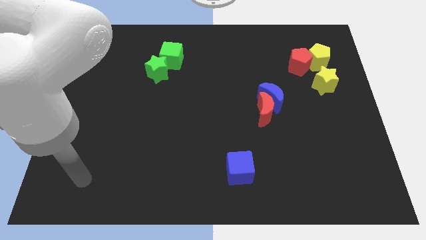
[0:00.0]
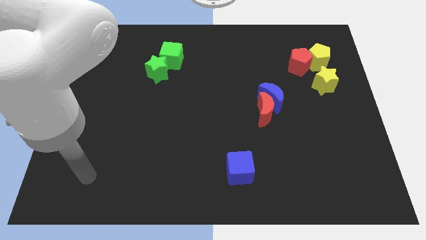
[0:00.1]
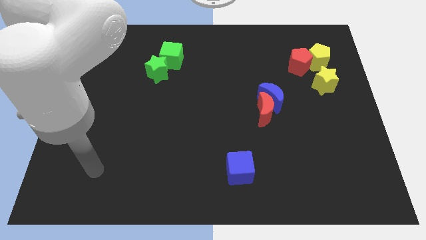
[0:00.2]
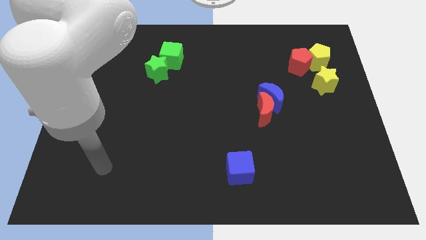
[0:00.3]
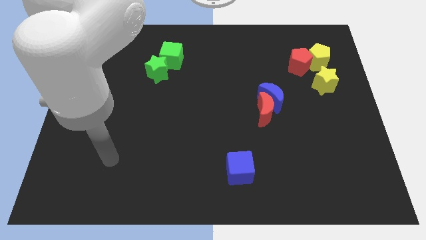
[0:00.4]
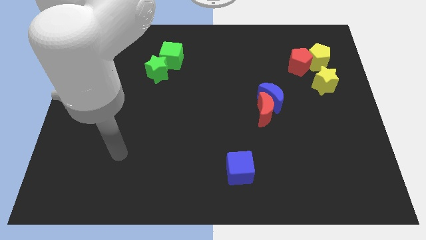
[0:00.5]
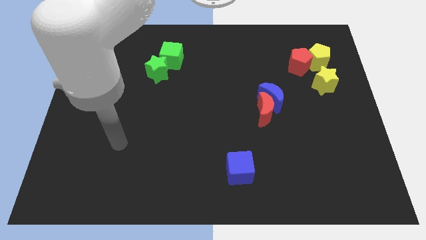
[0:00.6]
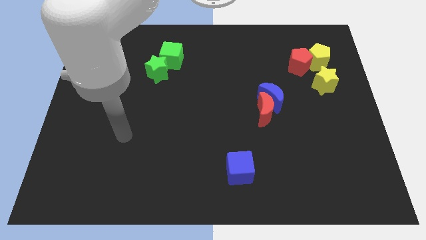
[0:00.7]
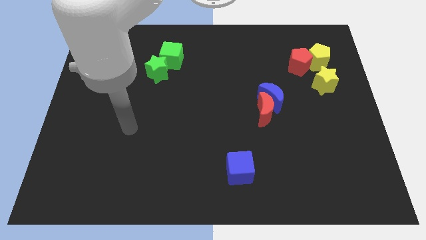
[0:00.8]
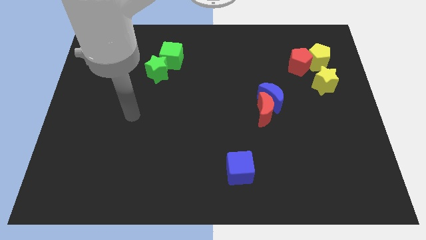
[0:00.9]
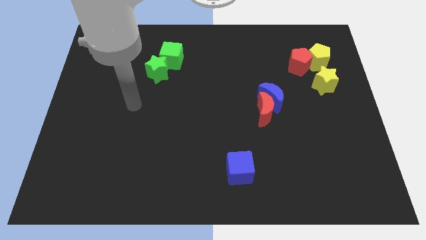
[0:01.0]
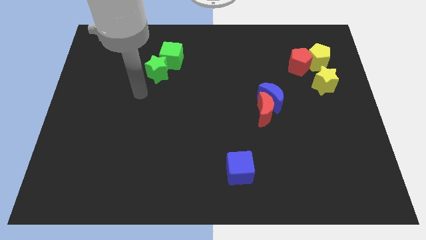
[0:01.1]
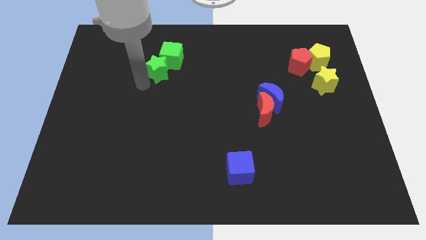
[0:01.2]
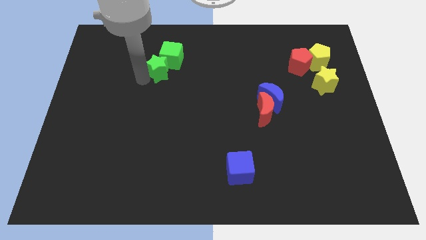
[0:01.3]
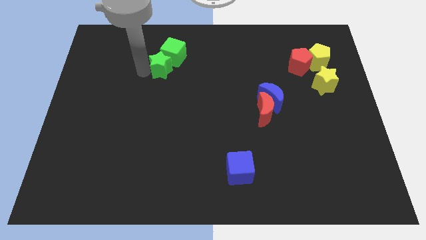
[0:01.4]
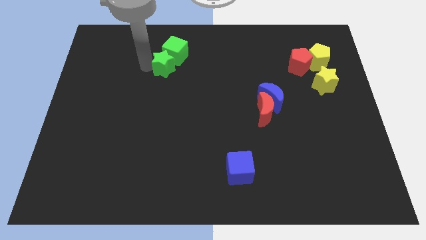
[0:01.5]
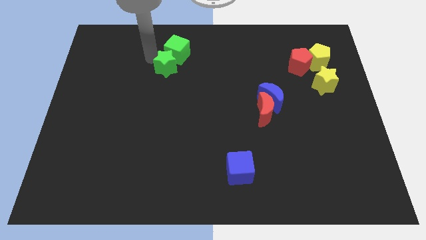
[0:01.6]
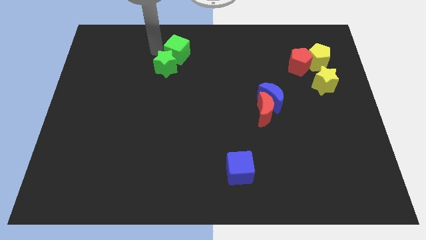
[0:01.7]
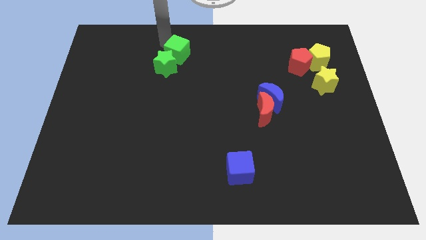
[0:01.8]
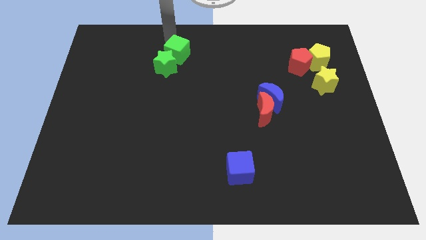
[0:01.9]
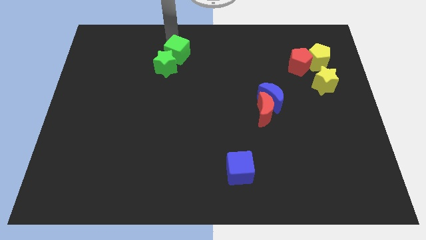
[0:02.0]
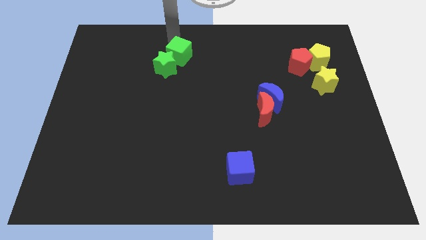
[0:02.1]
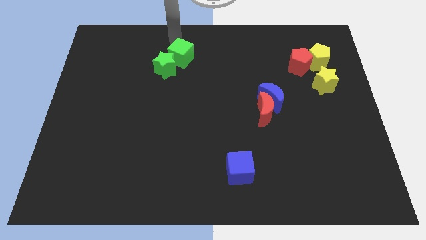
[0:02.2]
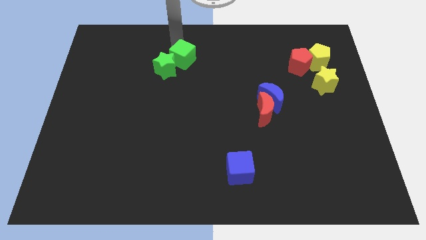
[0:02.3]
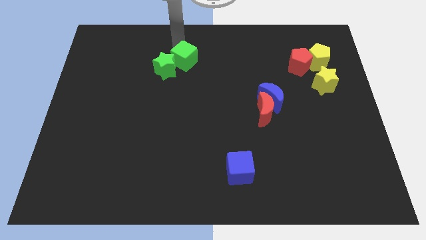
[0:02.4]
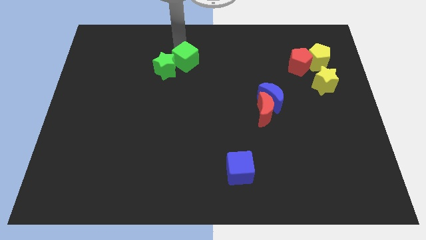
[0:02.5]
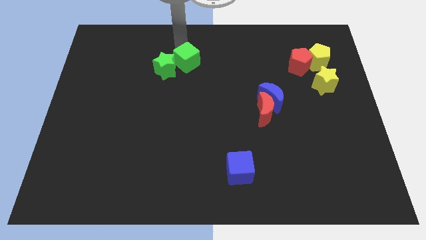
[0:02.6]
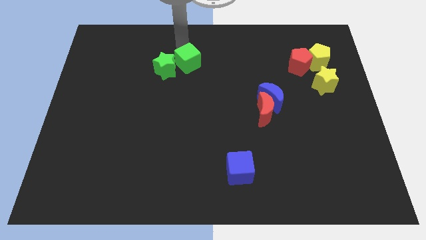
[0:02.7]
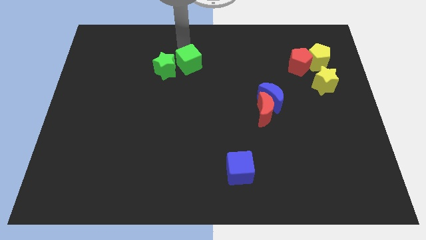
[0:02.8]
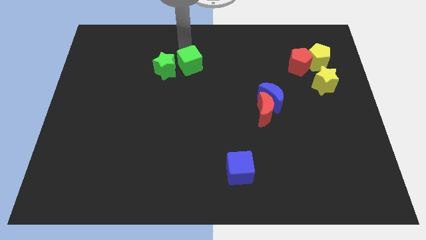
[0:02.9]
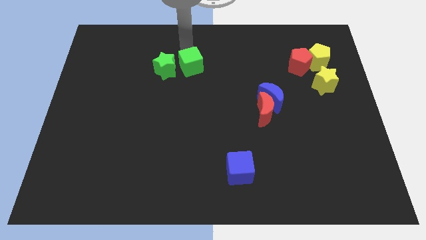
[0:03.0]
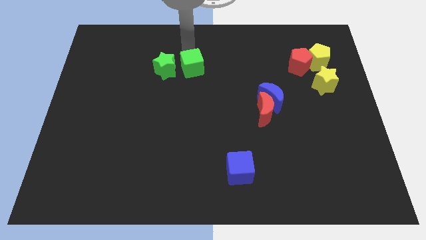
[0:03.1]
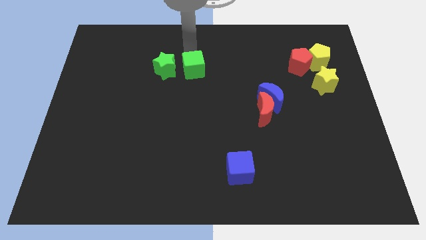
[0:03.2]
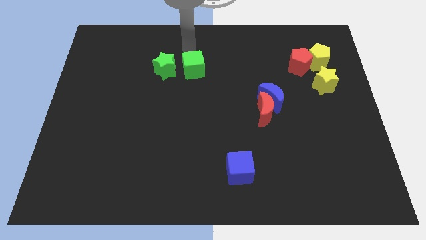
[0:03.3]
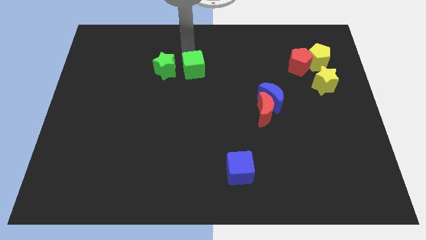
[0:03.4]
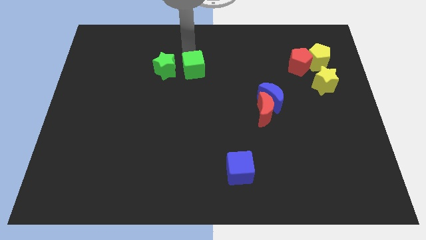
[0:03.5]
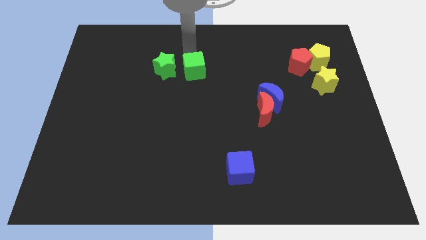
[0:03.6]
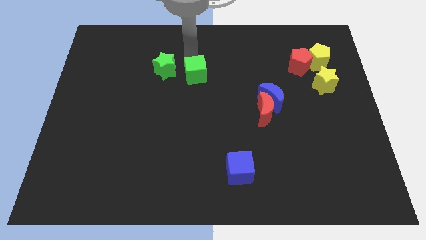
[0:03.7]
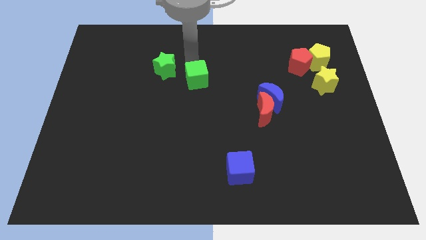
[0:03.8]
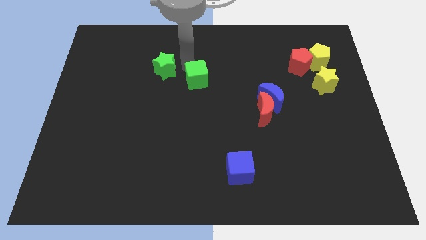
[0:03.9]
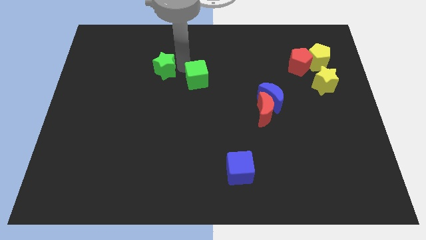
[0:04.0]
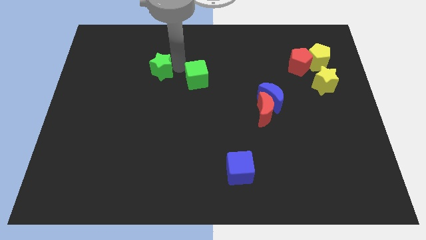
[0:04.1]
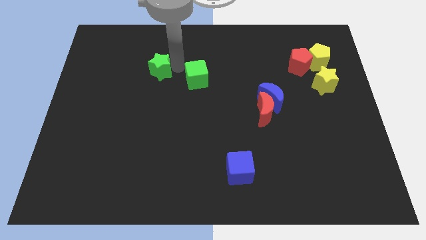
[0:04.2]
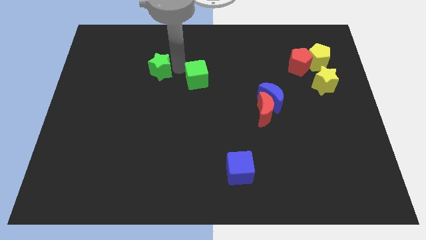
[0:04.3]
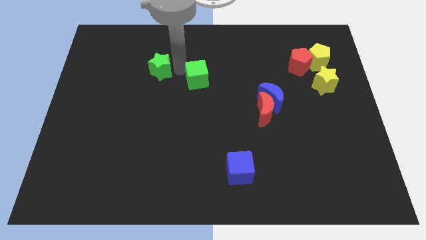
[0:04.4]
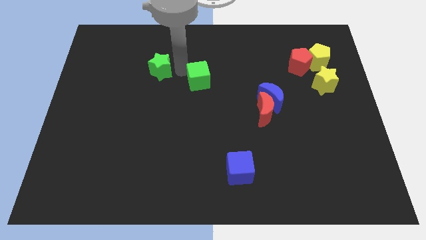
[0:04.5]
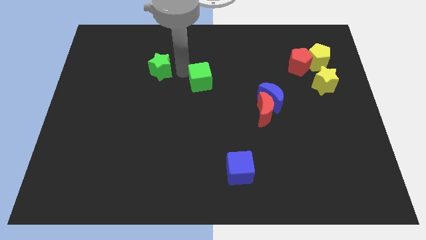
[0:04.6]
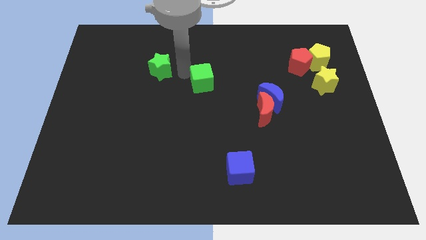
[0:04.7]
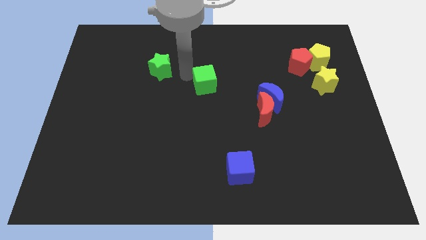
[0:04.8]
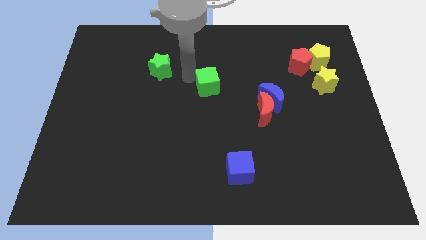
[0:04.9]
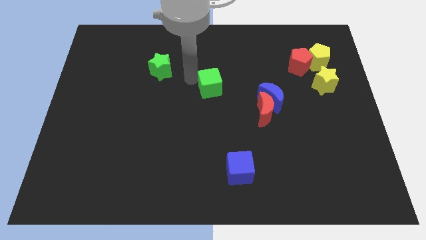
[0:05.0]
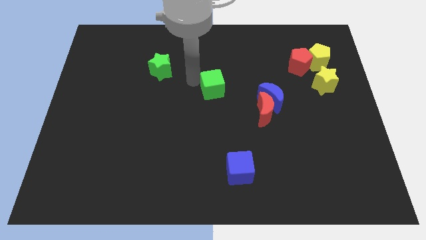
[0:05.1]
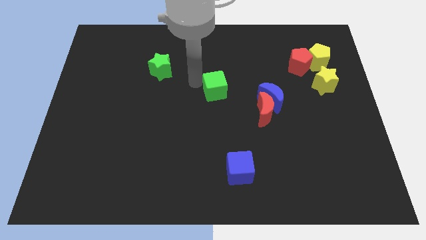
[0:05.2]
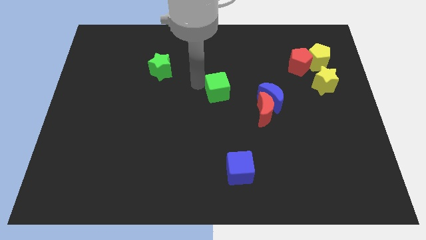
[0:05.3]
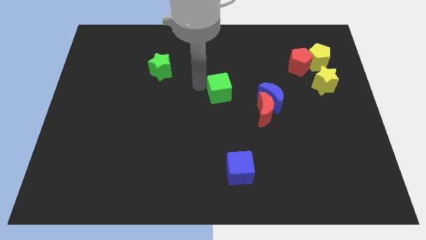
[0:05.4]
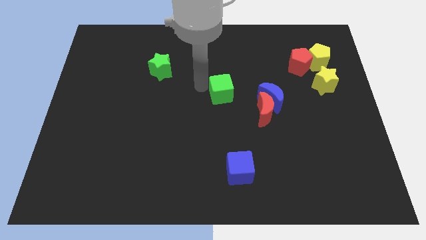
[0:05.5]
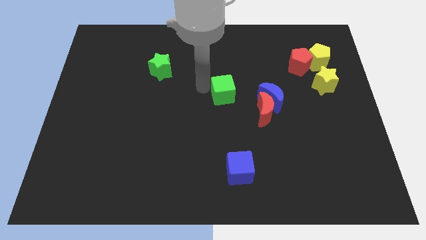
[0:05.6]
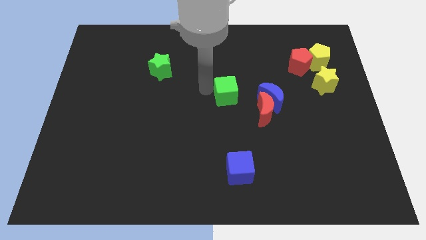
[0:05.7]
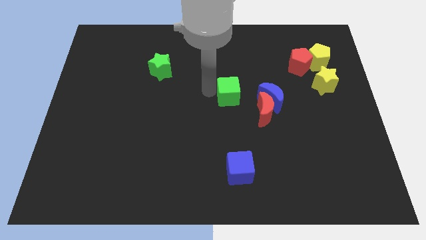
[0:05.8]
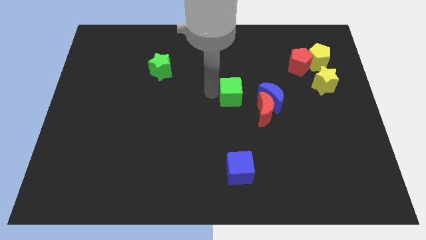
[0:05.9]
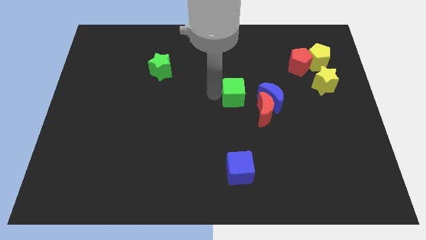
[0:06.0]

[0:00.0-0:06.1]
slide the green cube down and then to the right

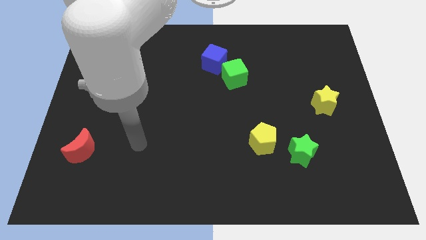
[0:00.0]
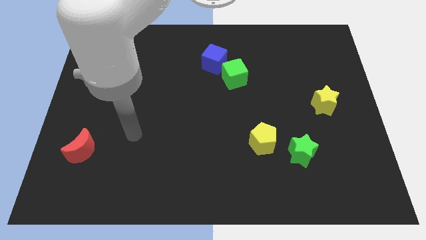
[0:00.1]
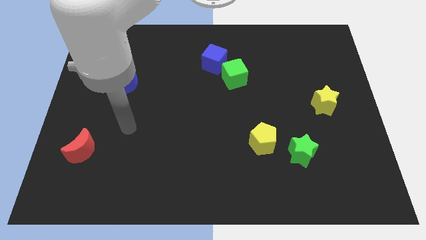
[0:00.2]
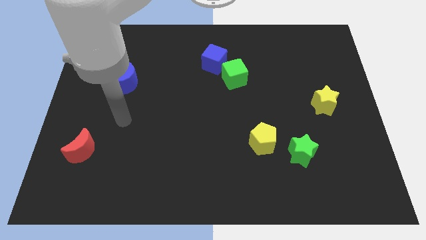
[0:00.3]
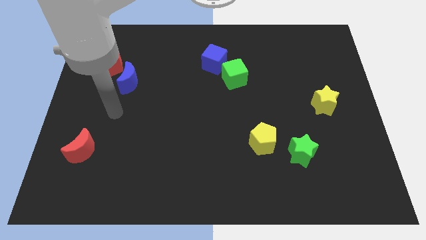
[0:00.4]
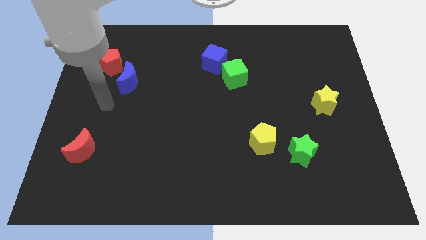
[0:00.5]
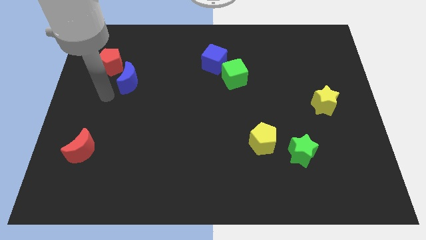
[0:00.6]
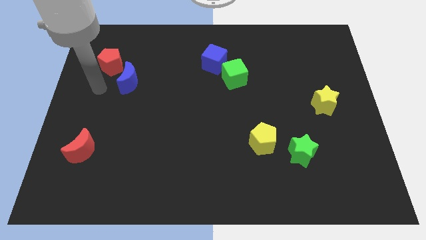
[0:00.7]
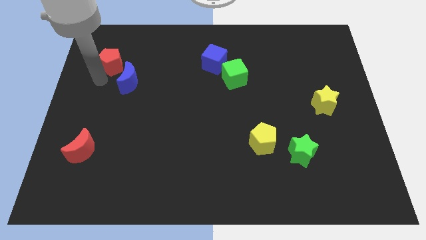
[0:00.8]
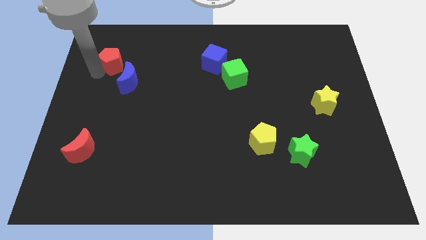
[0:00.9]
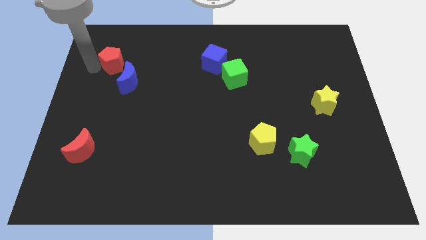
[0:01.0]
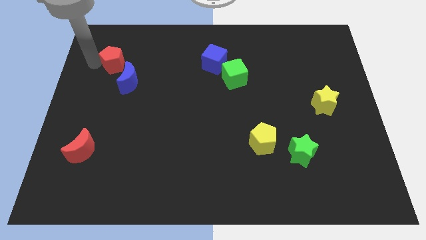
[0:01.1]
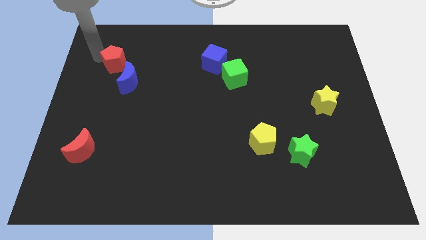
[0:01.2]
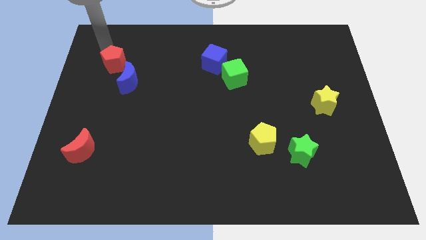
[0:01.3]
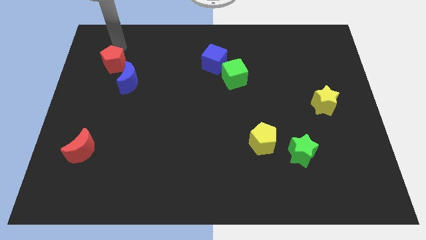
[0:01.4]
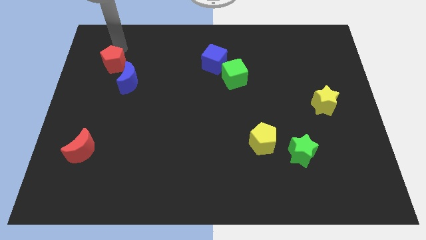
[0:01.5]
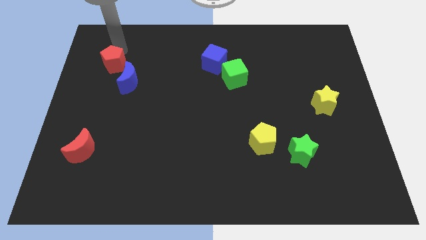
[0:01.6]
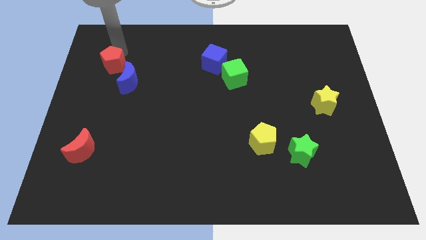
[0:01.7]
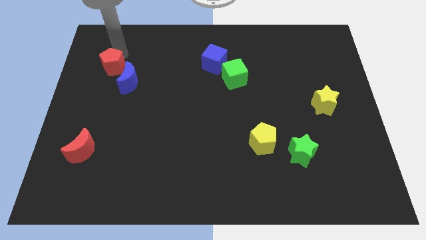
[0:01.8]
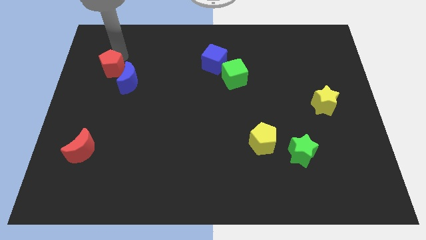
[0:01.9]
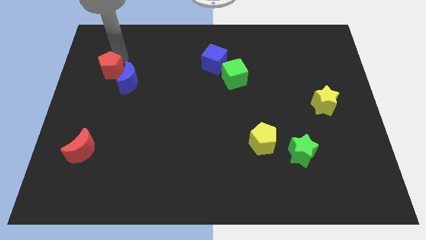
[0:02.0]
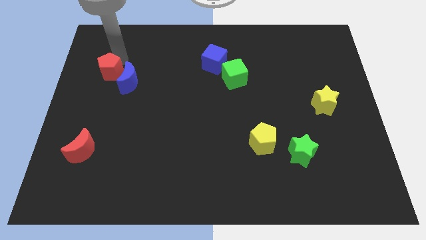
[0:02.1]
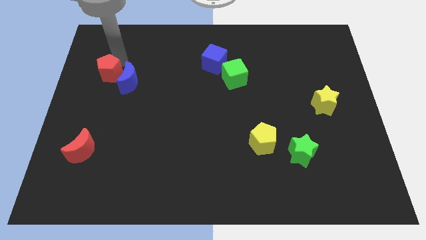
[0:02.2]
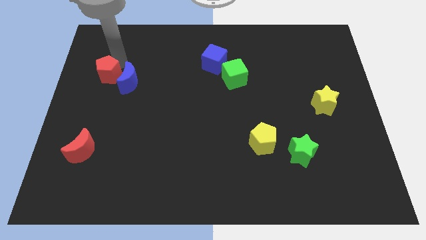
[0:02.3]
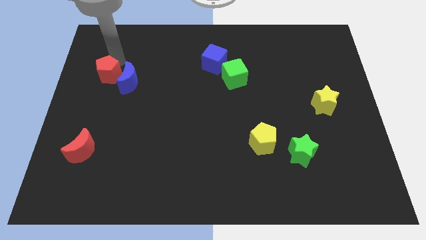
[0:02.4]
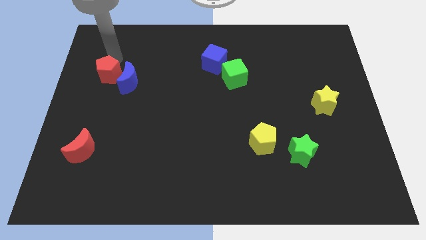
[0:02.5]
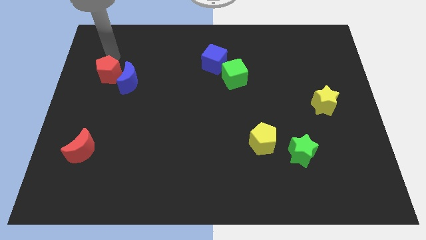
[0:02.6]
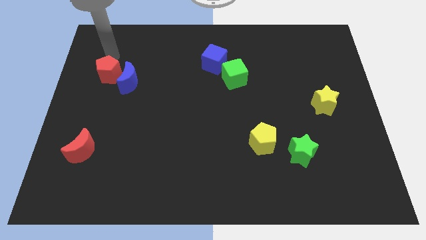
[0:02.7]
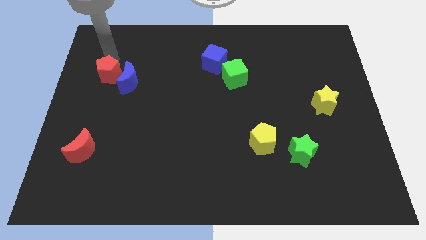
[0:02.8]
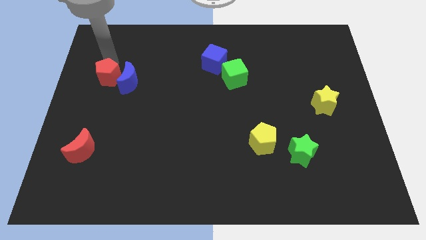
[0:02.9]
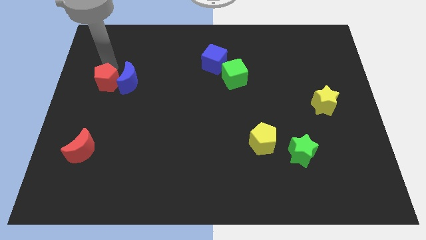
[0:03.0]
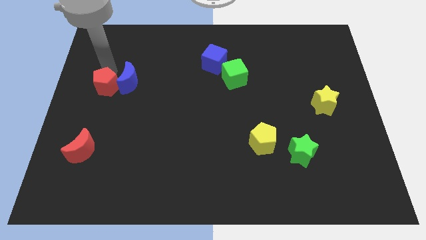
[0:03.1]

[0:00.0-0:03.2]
push the red pentagon somewhat downwards
